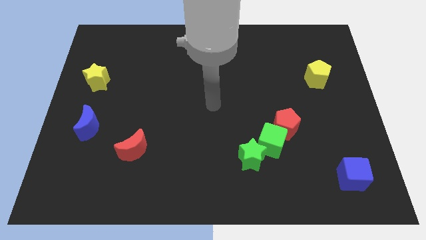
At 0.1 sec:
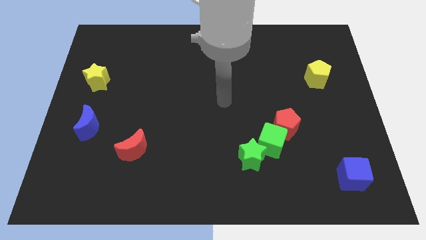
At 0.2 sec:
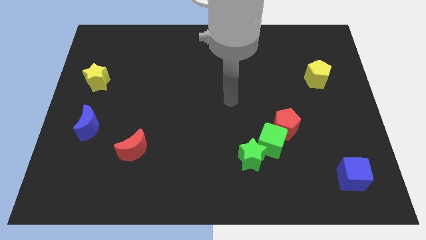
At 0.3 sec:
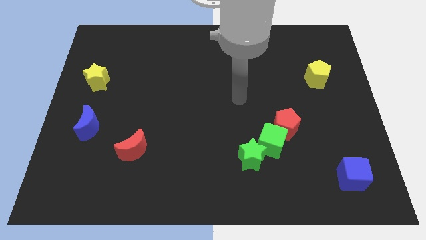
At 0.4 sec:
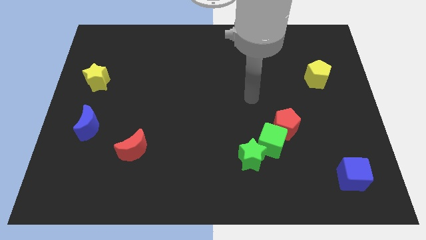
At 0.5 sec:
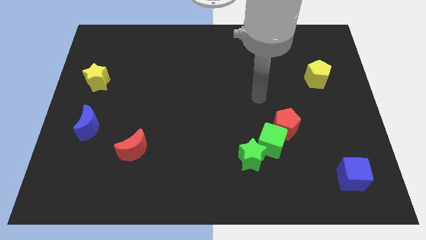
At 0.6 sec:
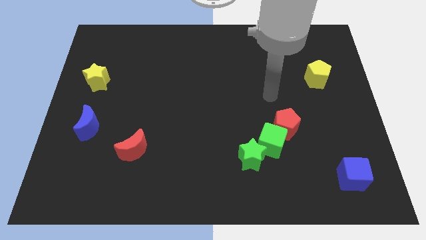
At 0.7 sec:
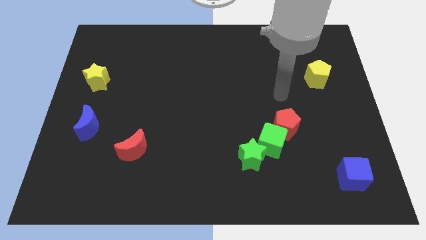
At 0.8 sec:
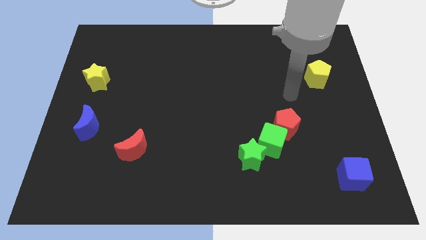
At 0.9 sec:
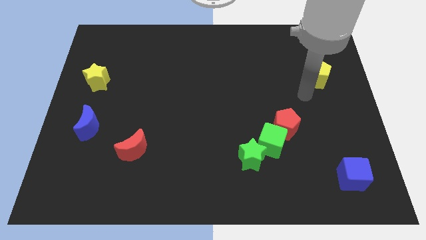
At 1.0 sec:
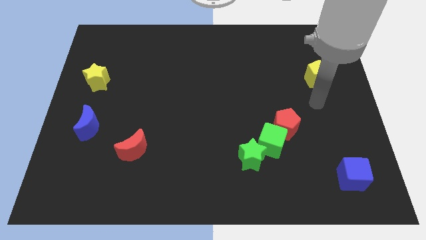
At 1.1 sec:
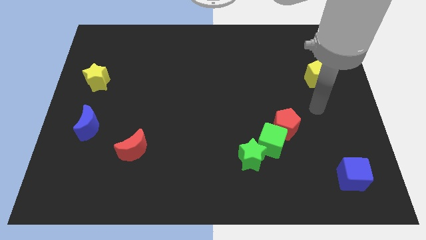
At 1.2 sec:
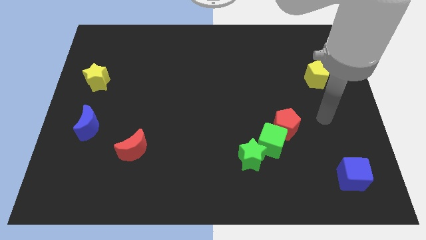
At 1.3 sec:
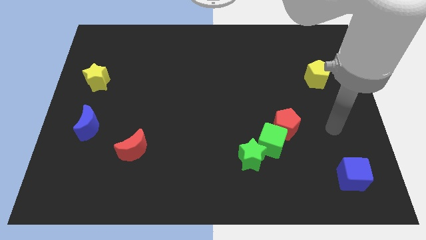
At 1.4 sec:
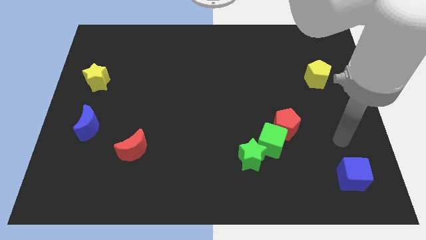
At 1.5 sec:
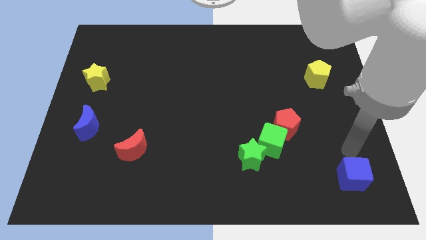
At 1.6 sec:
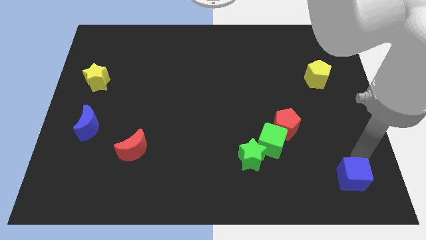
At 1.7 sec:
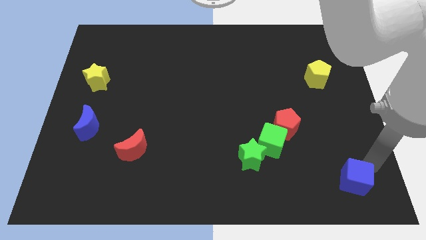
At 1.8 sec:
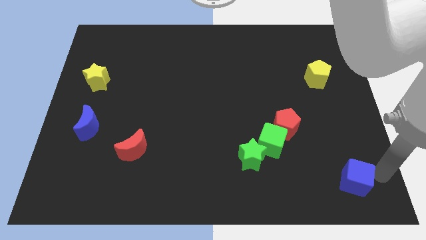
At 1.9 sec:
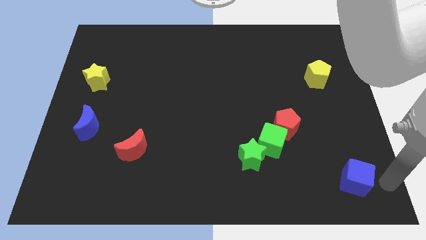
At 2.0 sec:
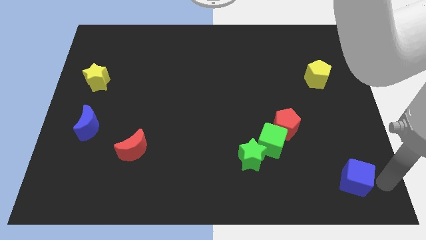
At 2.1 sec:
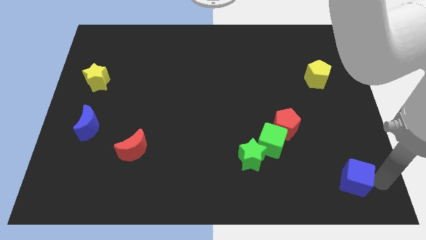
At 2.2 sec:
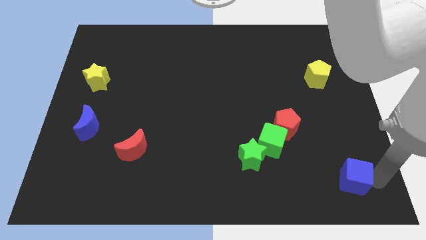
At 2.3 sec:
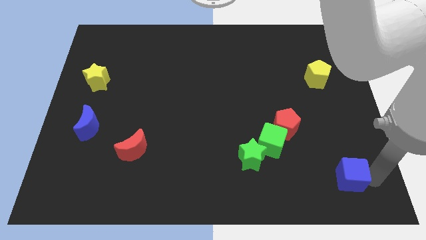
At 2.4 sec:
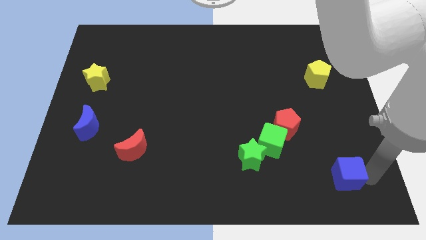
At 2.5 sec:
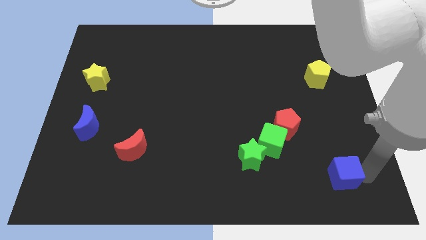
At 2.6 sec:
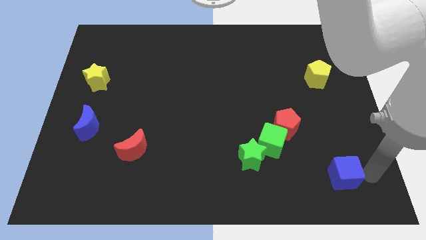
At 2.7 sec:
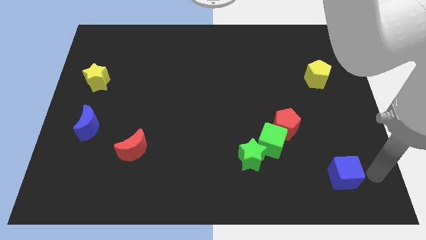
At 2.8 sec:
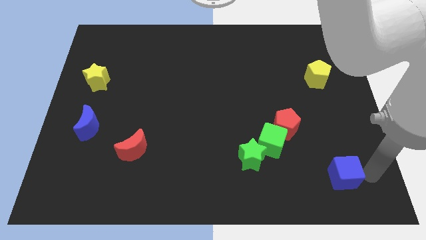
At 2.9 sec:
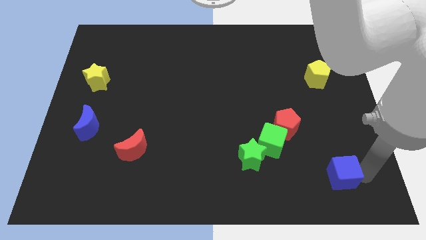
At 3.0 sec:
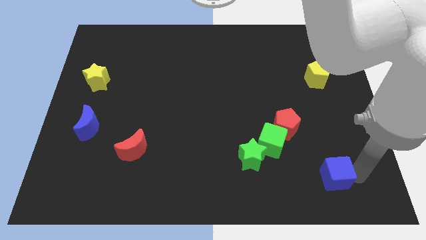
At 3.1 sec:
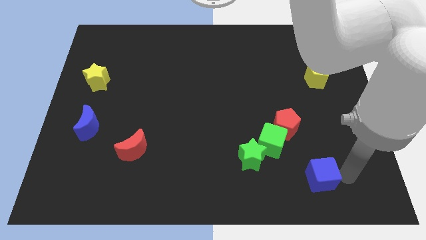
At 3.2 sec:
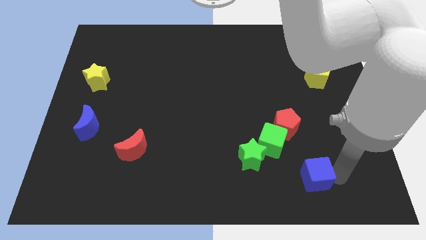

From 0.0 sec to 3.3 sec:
move the blue cube left slightly

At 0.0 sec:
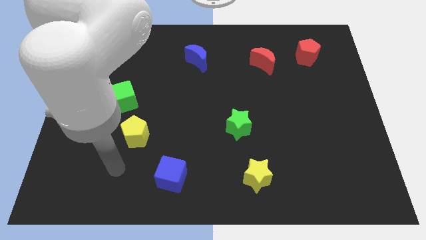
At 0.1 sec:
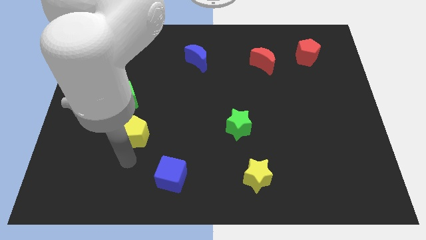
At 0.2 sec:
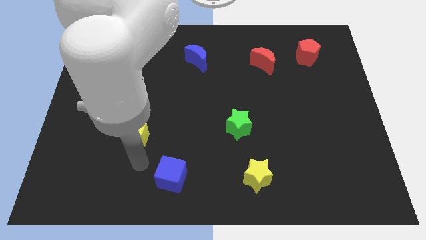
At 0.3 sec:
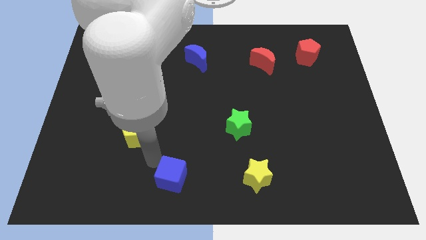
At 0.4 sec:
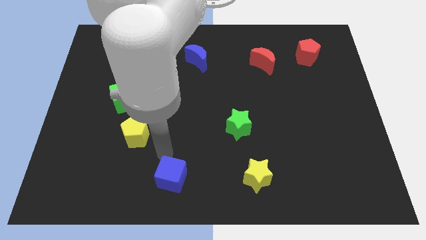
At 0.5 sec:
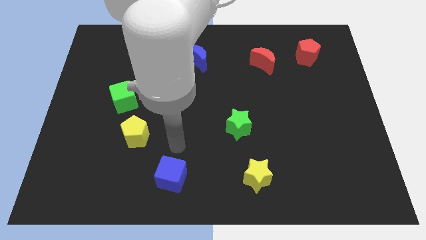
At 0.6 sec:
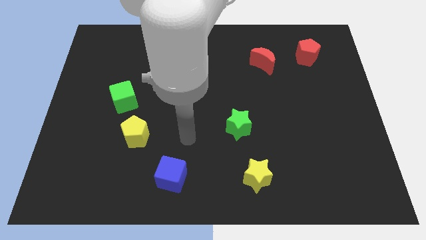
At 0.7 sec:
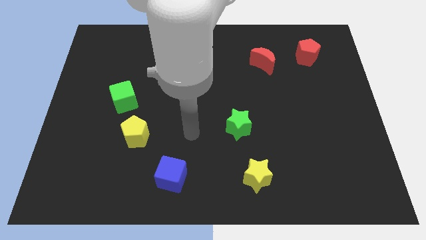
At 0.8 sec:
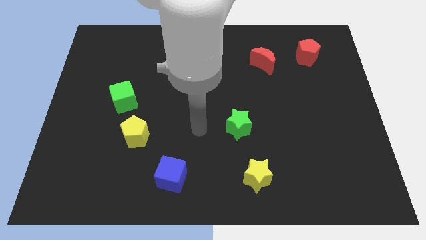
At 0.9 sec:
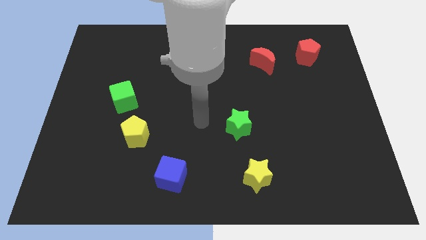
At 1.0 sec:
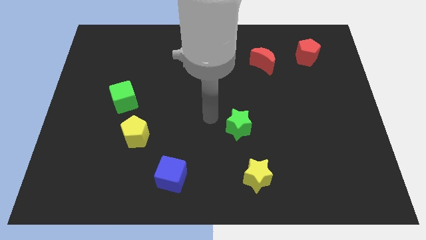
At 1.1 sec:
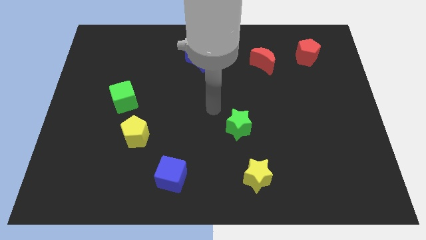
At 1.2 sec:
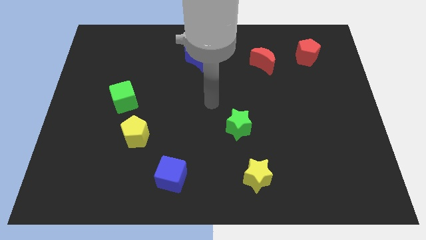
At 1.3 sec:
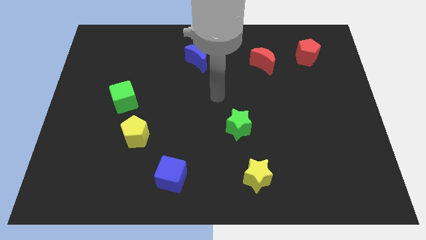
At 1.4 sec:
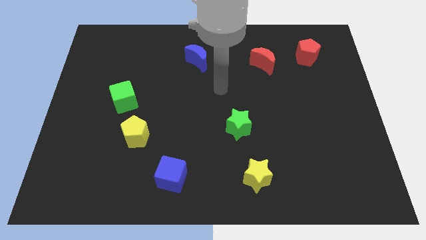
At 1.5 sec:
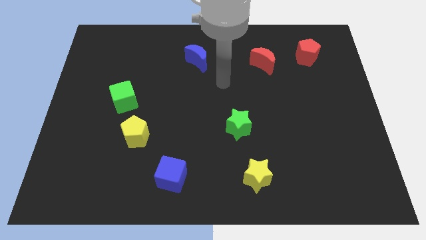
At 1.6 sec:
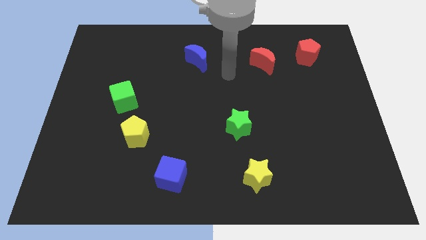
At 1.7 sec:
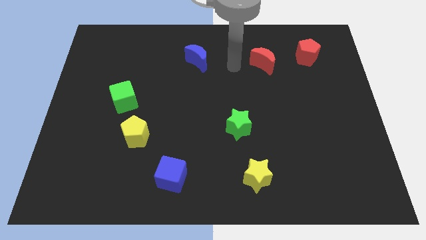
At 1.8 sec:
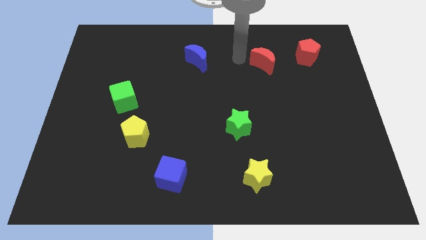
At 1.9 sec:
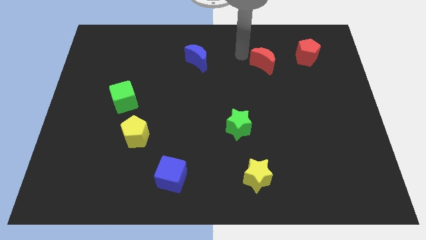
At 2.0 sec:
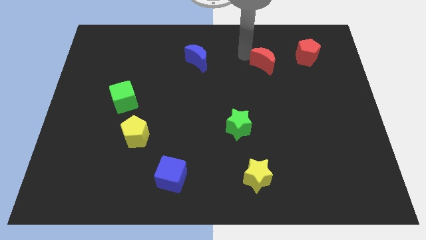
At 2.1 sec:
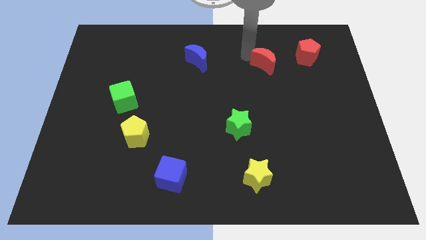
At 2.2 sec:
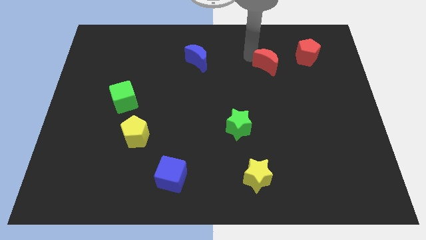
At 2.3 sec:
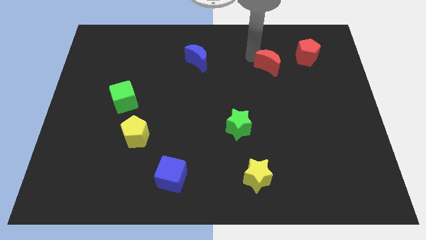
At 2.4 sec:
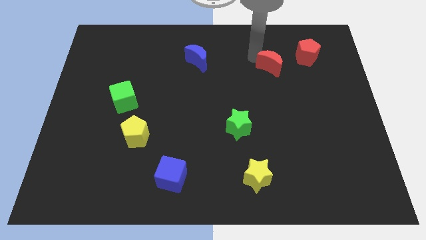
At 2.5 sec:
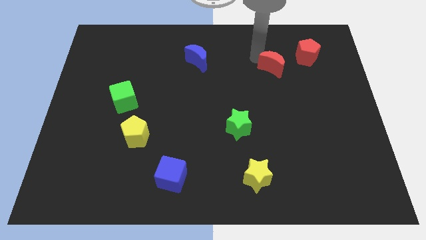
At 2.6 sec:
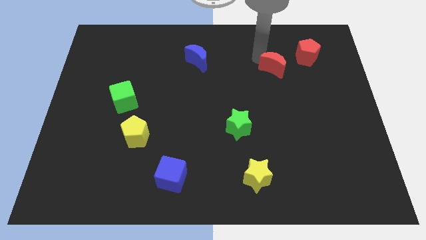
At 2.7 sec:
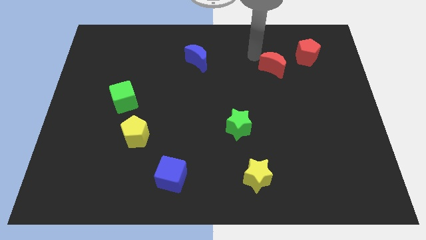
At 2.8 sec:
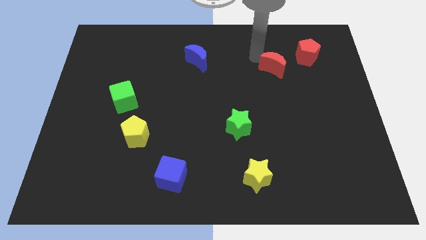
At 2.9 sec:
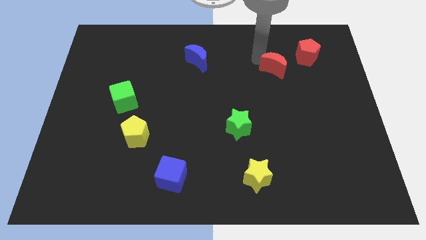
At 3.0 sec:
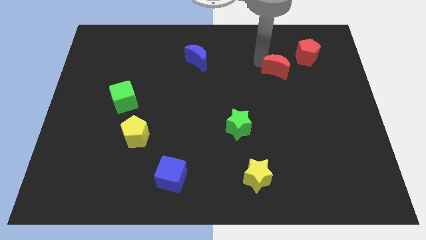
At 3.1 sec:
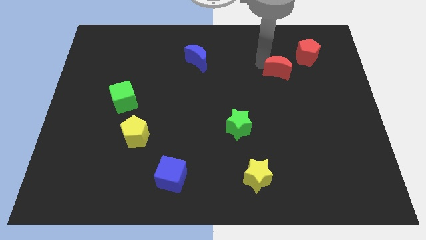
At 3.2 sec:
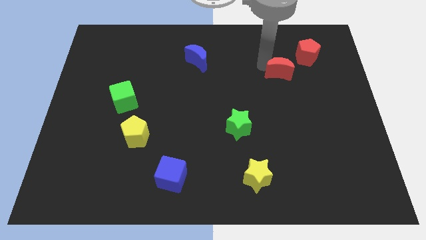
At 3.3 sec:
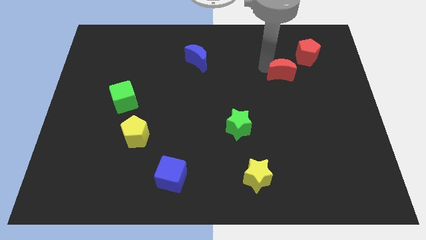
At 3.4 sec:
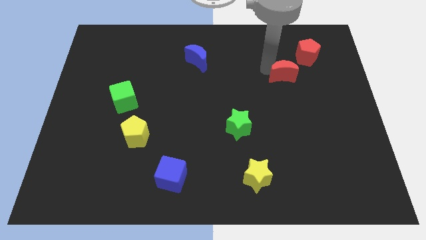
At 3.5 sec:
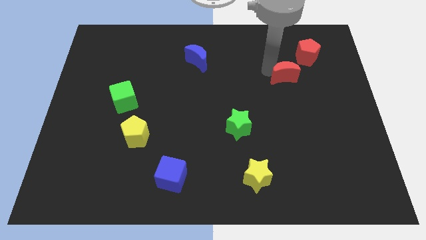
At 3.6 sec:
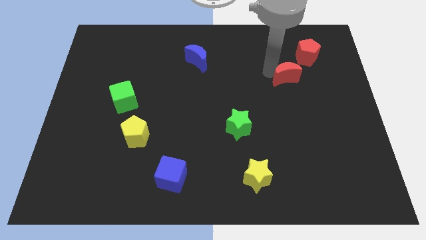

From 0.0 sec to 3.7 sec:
push the red moon somewhat down and then right

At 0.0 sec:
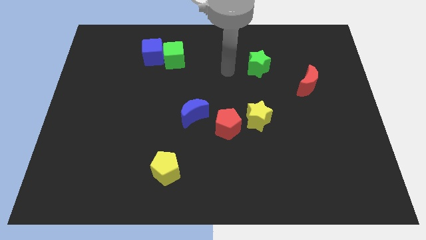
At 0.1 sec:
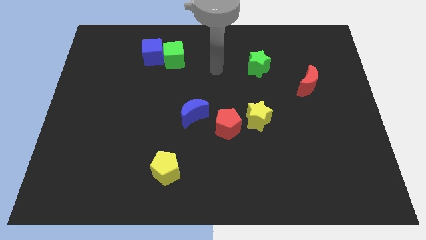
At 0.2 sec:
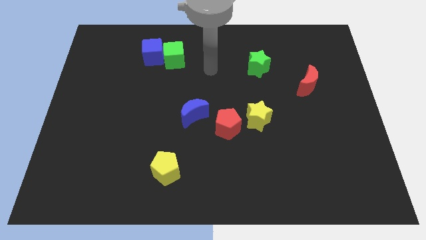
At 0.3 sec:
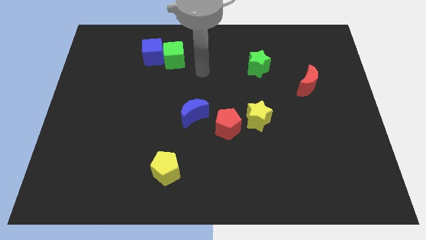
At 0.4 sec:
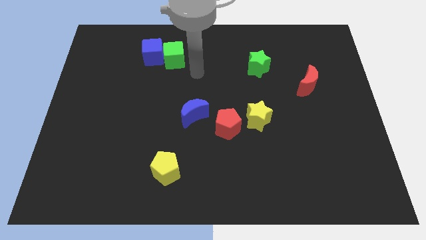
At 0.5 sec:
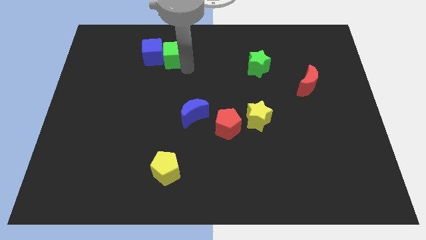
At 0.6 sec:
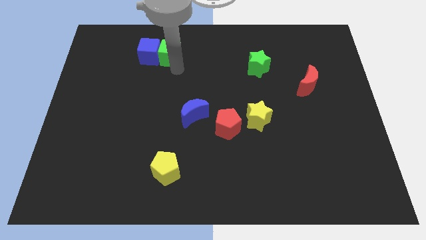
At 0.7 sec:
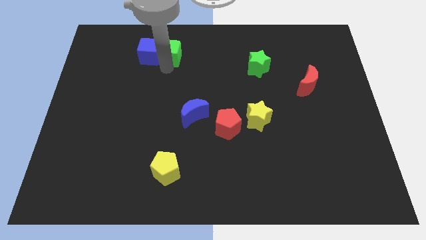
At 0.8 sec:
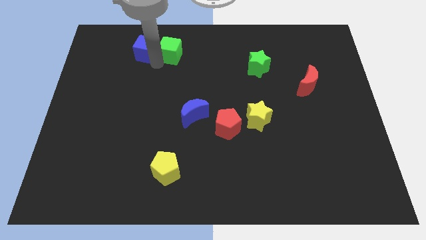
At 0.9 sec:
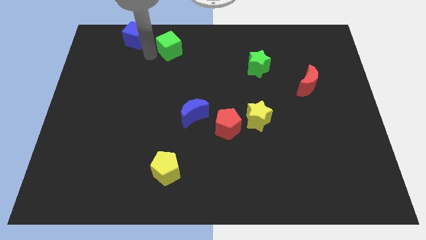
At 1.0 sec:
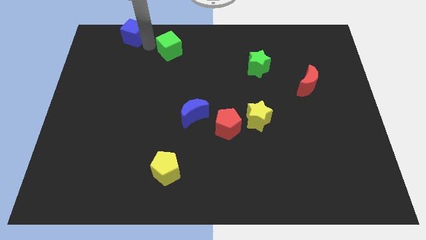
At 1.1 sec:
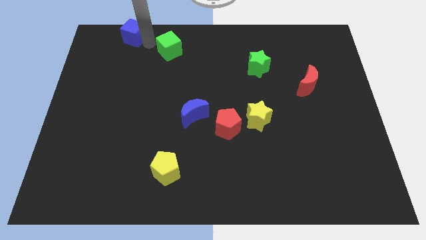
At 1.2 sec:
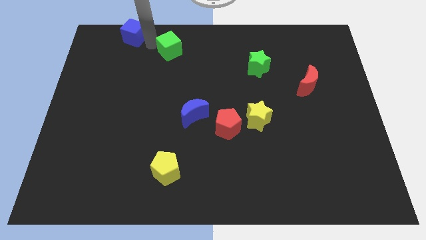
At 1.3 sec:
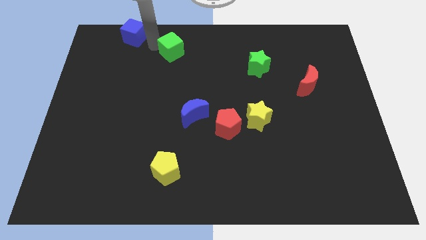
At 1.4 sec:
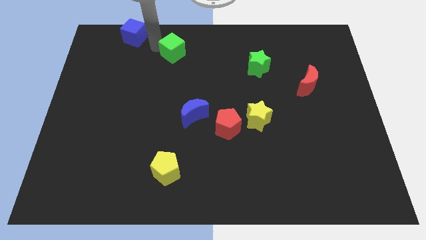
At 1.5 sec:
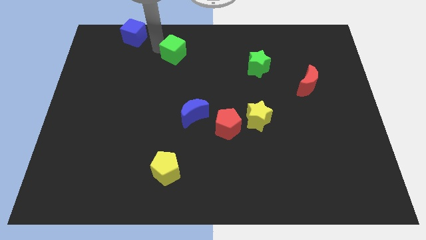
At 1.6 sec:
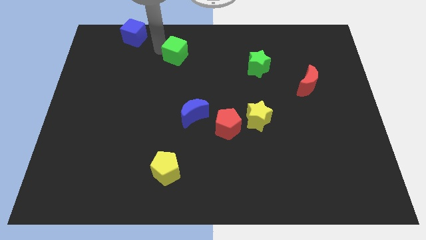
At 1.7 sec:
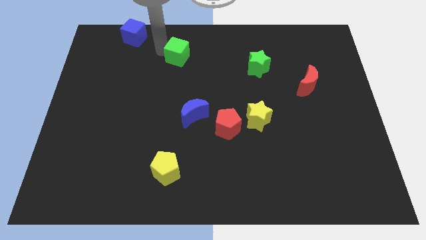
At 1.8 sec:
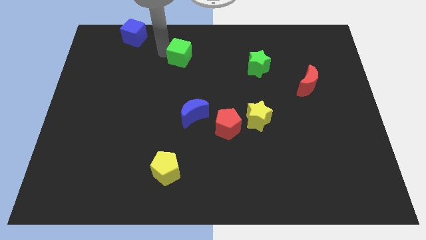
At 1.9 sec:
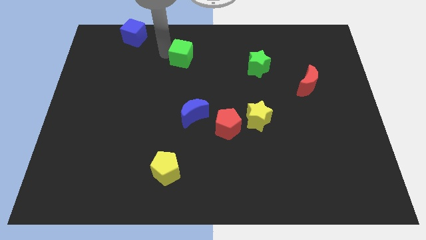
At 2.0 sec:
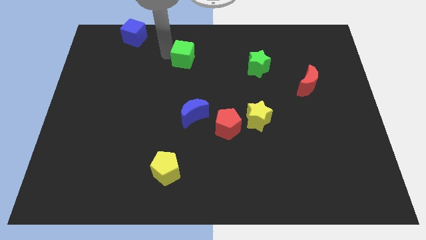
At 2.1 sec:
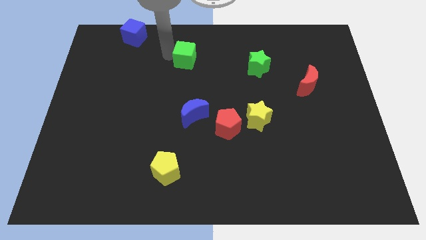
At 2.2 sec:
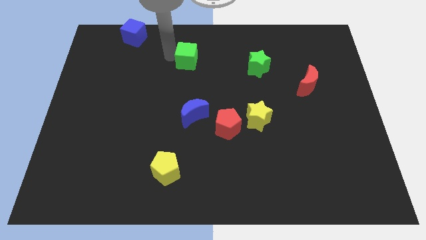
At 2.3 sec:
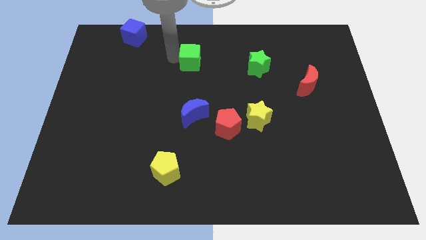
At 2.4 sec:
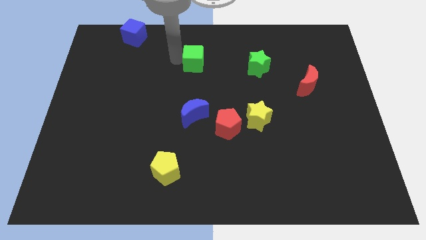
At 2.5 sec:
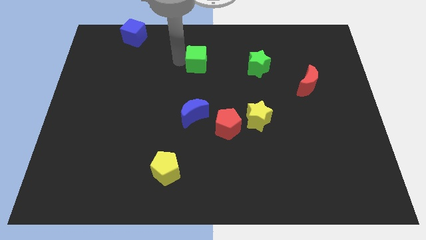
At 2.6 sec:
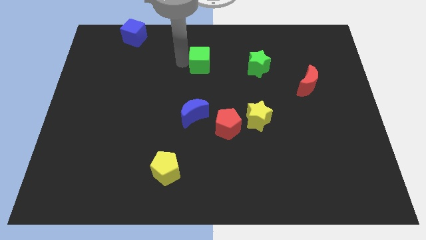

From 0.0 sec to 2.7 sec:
slightly push the green cube to the right
